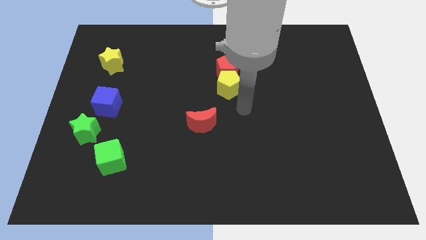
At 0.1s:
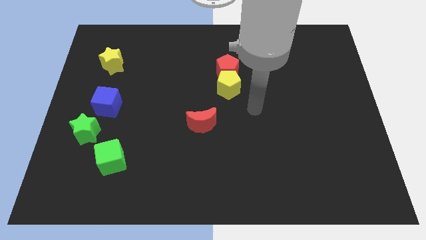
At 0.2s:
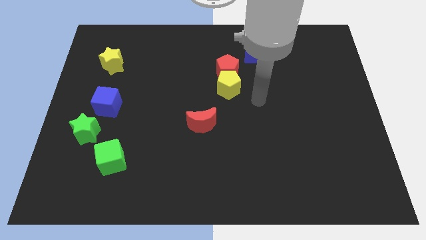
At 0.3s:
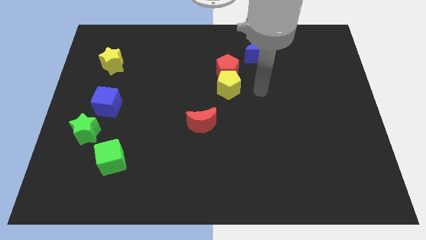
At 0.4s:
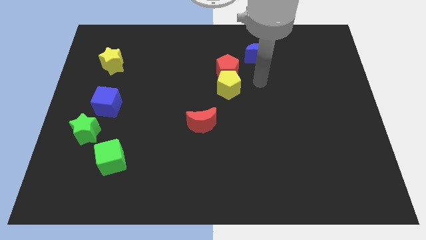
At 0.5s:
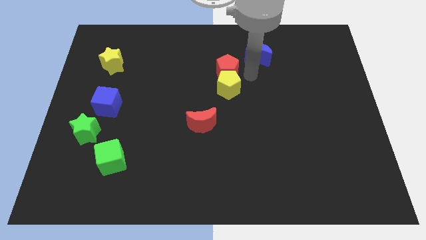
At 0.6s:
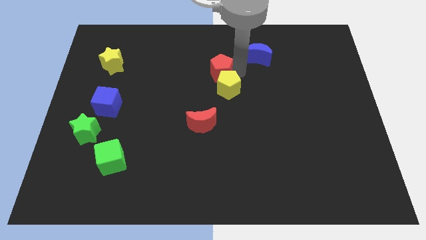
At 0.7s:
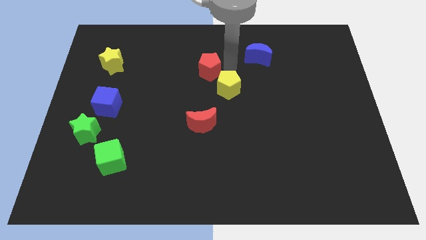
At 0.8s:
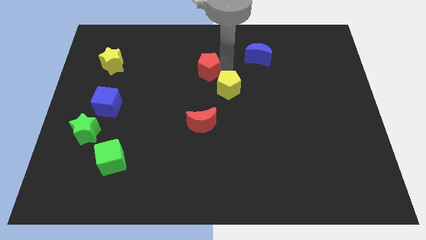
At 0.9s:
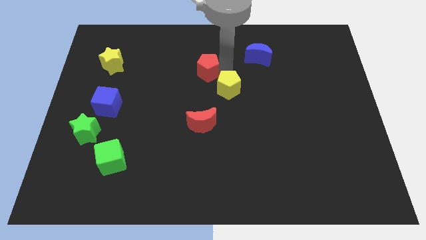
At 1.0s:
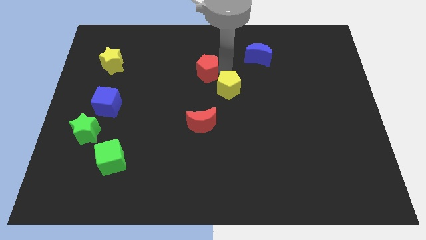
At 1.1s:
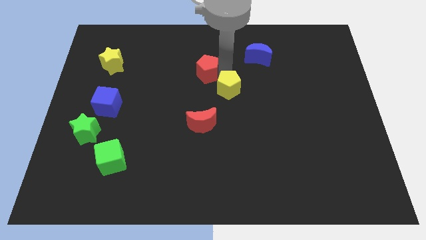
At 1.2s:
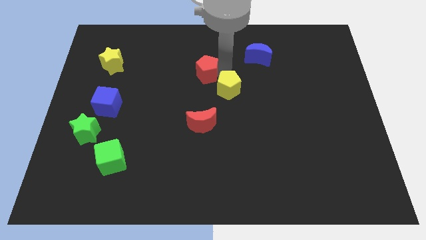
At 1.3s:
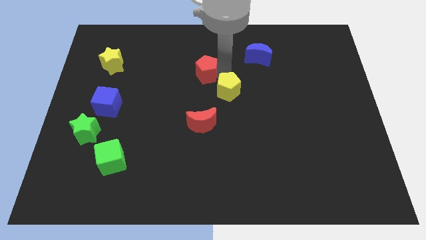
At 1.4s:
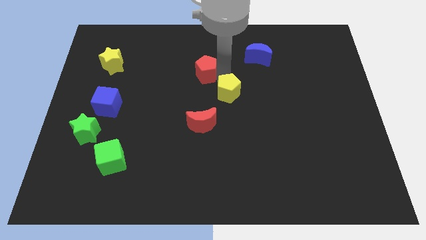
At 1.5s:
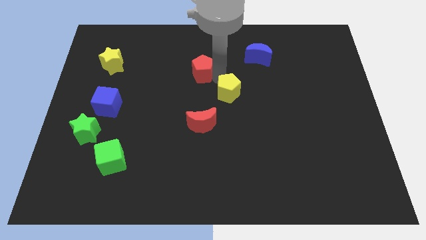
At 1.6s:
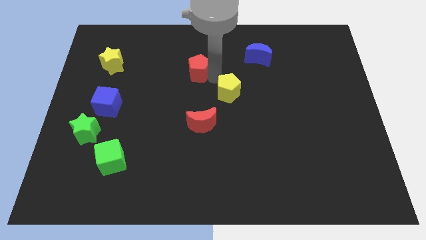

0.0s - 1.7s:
pull the yellow pentagon apart from the red pentagon

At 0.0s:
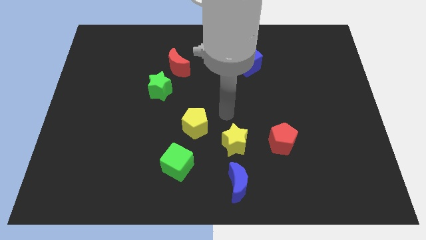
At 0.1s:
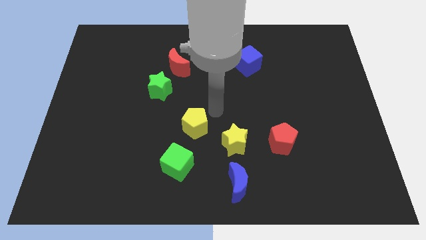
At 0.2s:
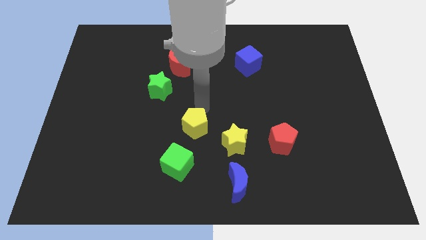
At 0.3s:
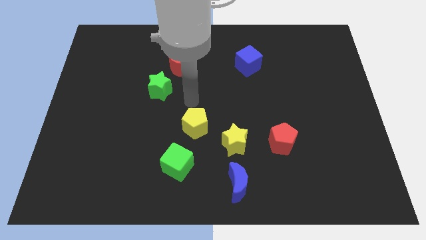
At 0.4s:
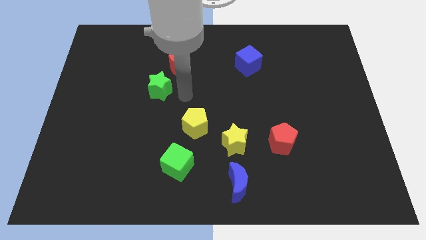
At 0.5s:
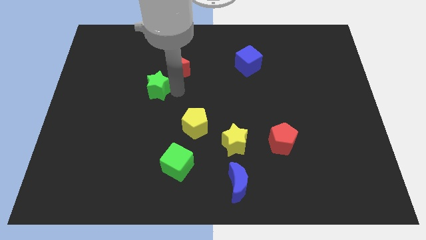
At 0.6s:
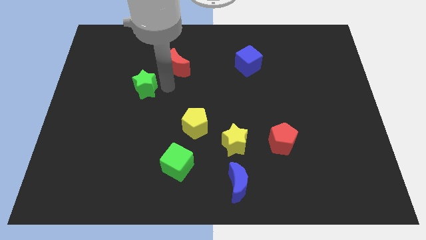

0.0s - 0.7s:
move the red moon away from the green star

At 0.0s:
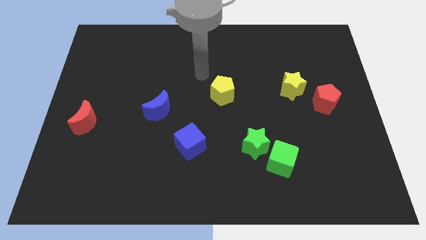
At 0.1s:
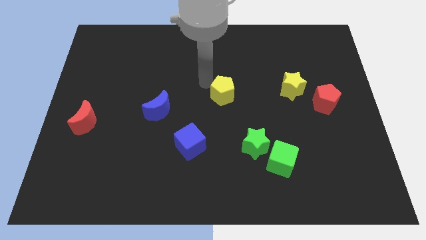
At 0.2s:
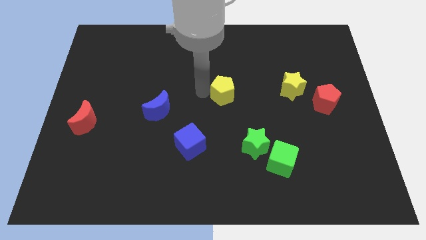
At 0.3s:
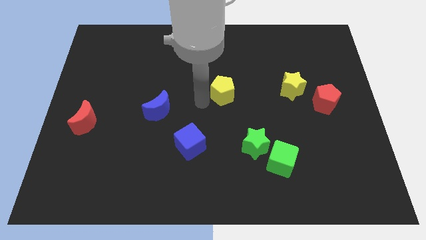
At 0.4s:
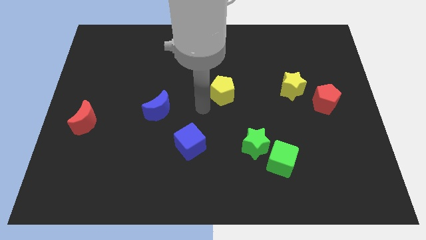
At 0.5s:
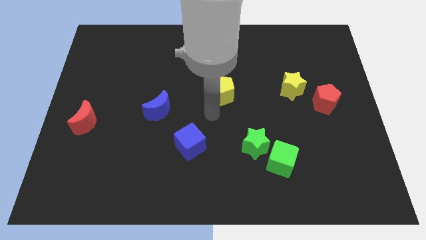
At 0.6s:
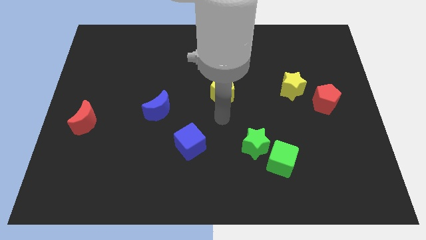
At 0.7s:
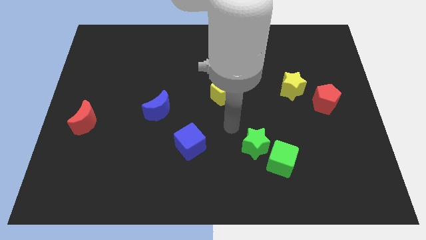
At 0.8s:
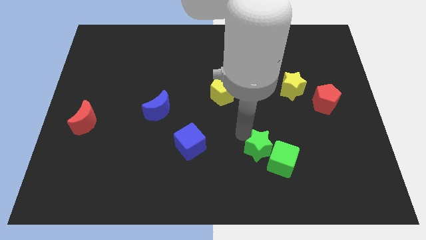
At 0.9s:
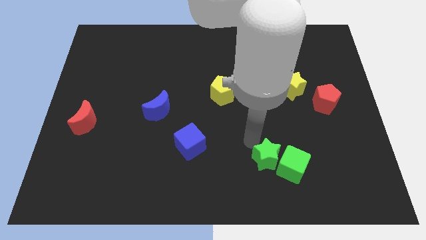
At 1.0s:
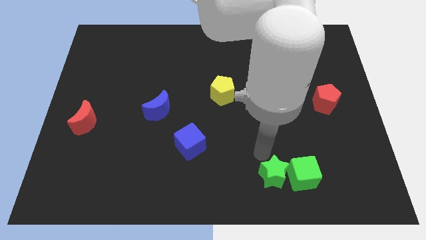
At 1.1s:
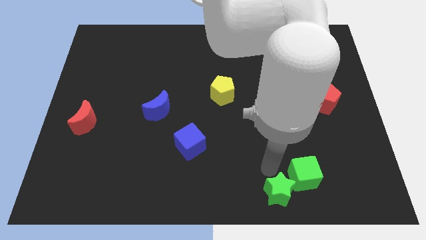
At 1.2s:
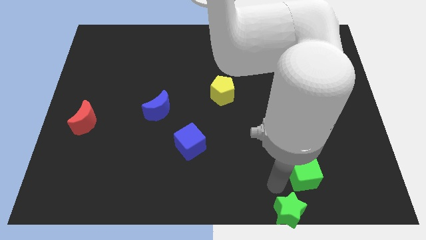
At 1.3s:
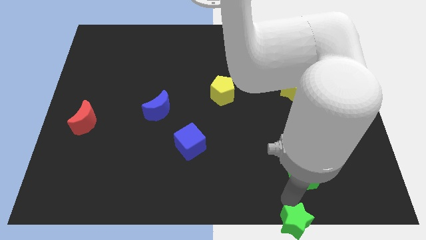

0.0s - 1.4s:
pull the green cube apart from the green star

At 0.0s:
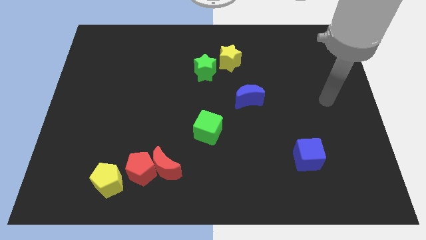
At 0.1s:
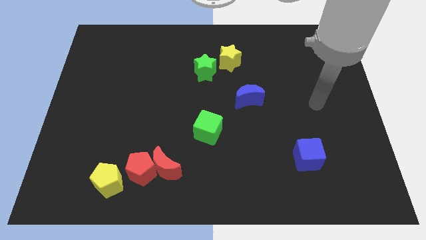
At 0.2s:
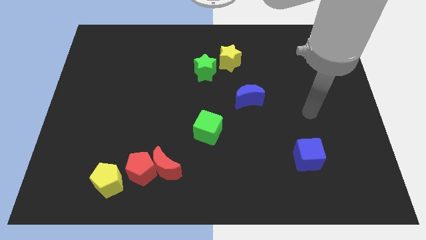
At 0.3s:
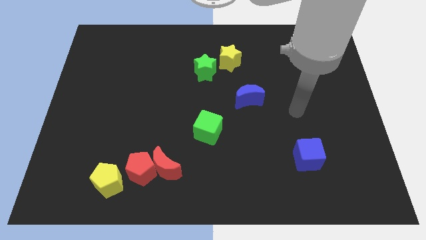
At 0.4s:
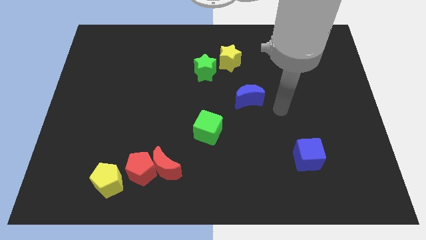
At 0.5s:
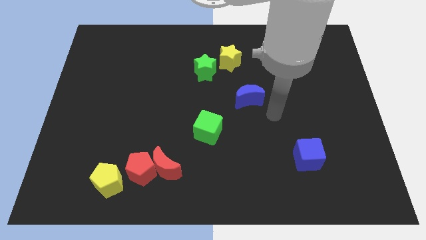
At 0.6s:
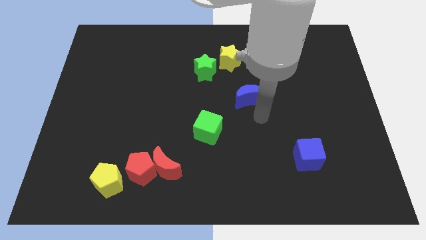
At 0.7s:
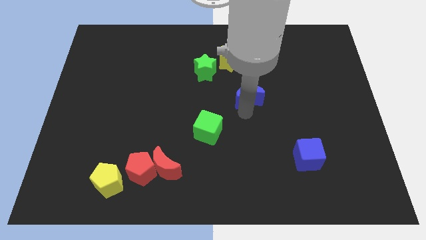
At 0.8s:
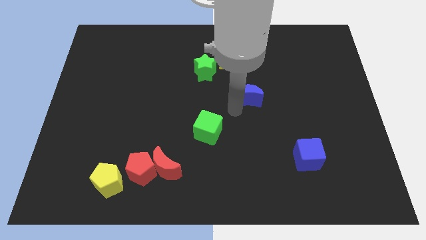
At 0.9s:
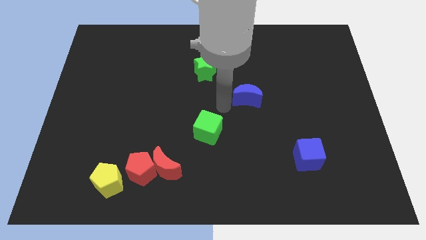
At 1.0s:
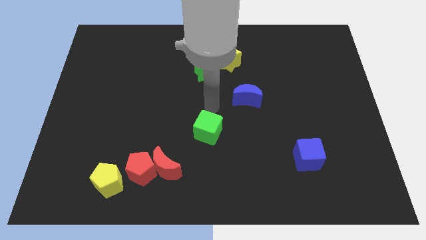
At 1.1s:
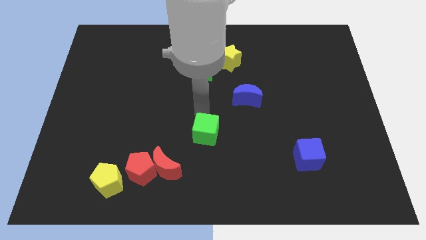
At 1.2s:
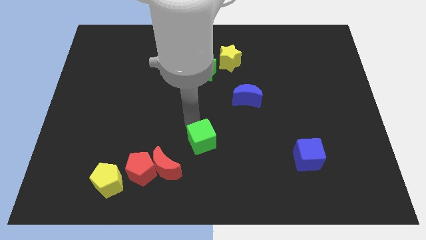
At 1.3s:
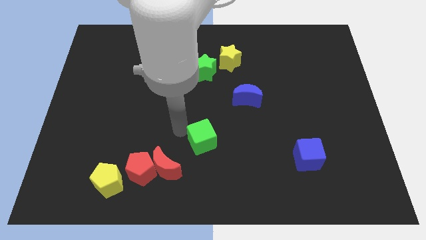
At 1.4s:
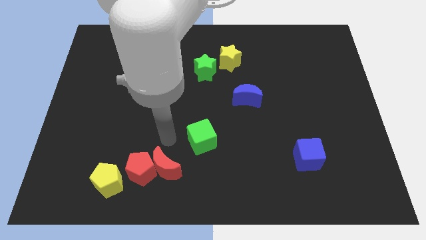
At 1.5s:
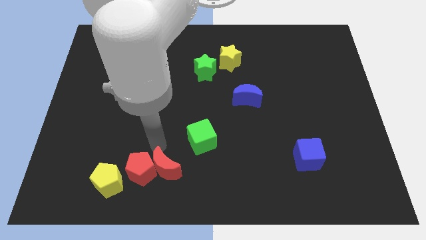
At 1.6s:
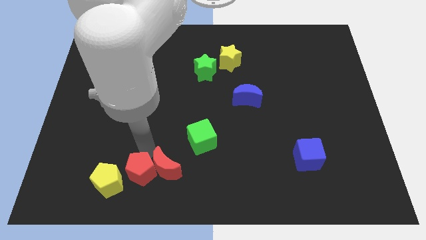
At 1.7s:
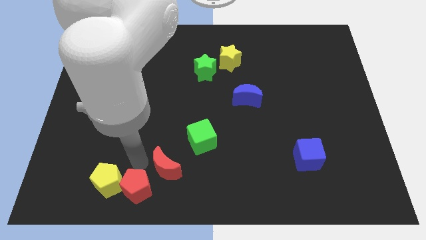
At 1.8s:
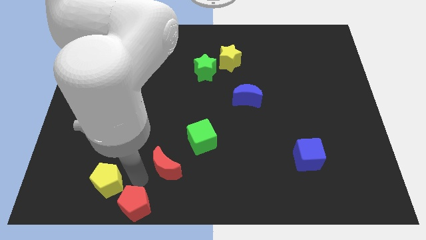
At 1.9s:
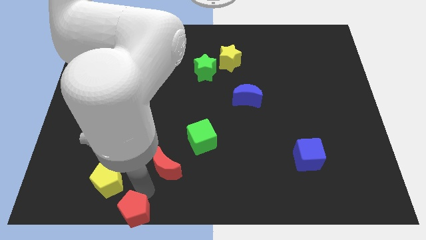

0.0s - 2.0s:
pull the red moon apart from the red pentagon

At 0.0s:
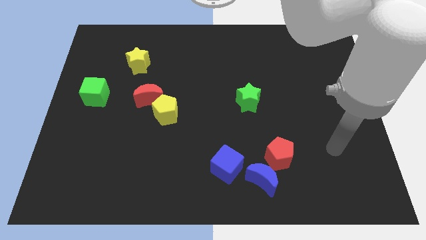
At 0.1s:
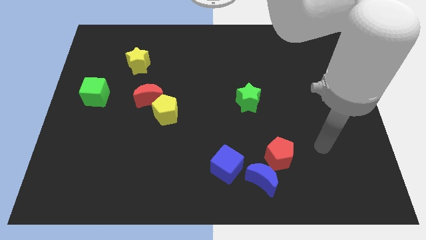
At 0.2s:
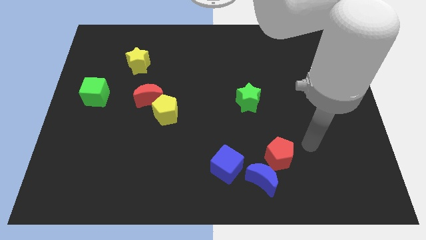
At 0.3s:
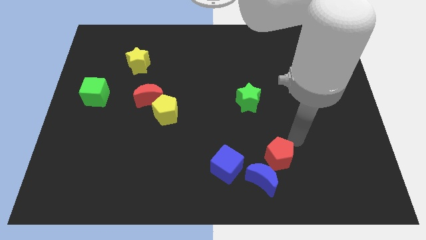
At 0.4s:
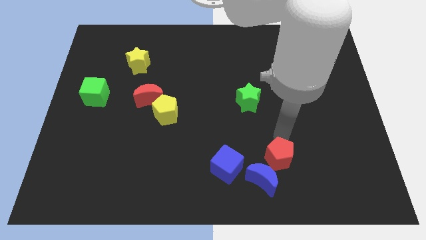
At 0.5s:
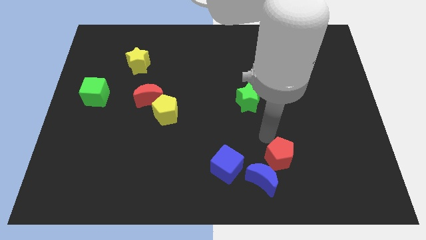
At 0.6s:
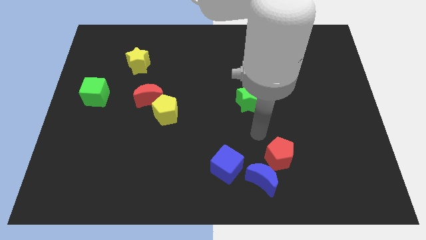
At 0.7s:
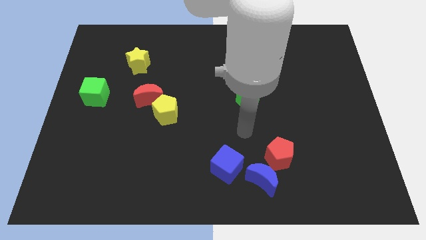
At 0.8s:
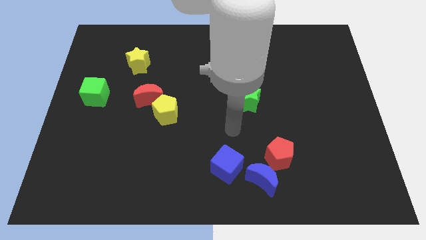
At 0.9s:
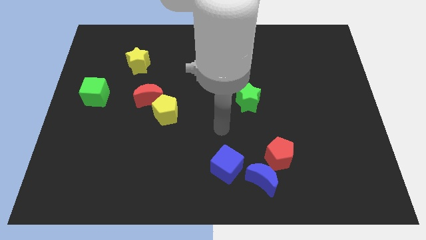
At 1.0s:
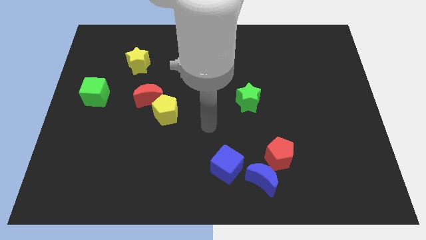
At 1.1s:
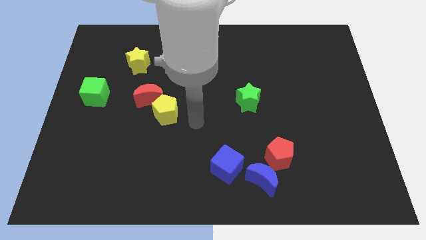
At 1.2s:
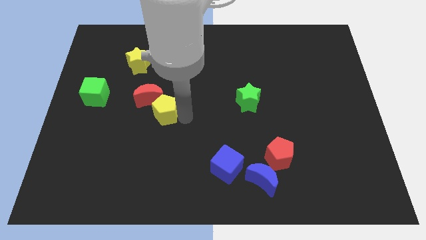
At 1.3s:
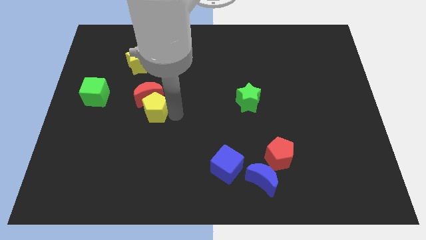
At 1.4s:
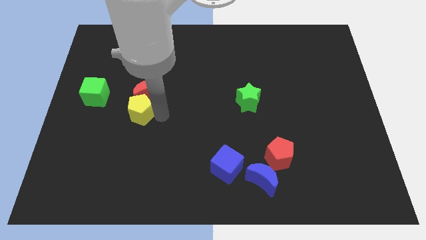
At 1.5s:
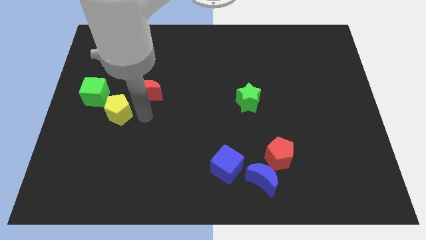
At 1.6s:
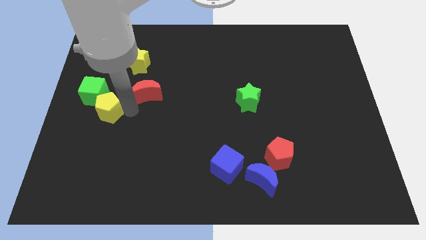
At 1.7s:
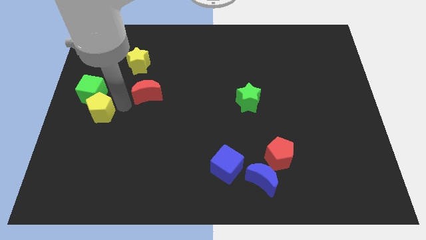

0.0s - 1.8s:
pull the red moon apart from the yellow pentagon

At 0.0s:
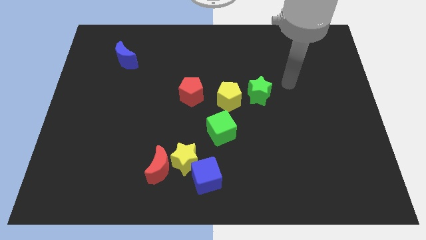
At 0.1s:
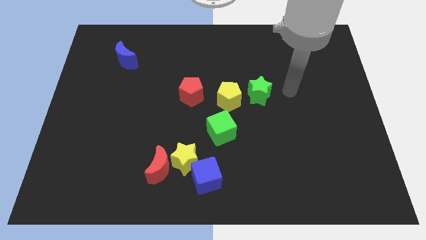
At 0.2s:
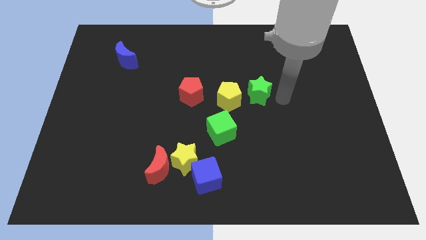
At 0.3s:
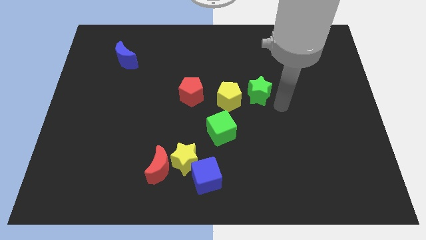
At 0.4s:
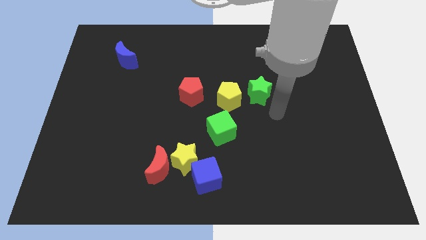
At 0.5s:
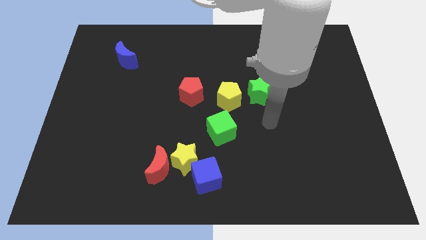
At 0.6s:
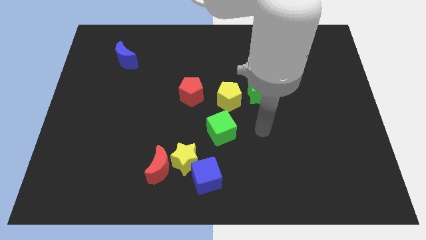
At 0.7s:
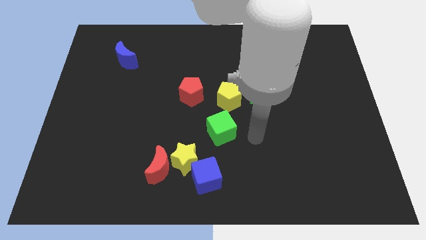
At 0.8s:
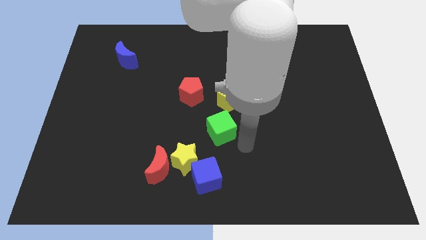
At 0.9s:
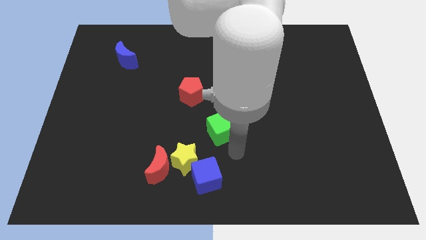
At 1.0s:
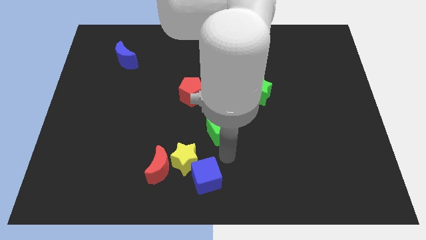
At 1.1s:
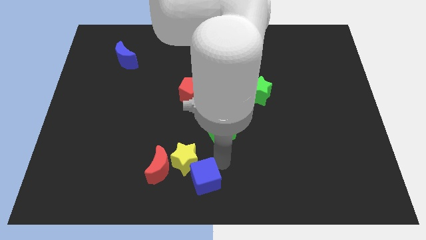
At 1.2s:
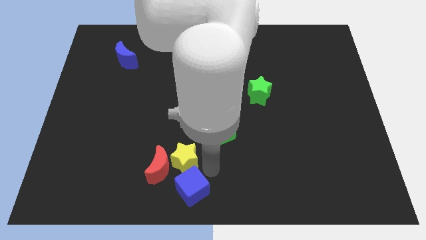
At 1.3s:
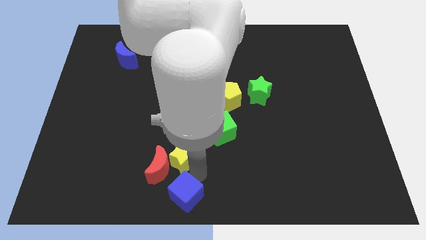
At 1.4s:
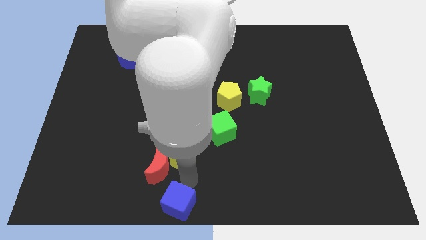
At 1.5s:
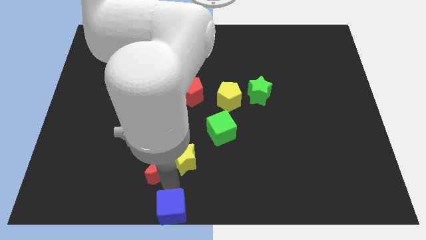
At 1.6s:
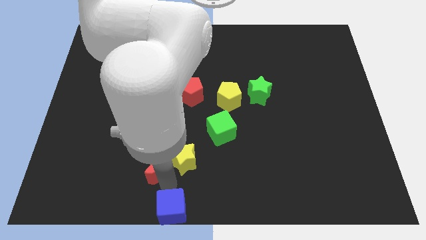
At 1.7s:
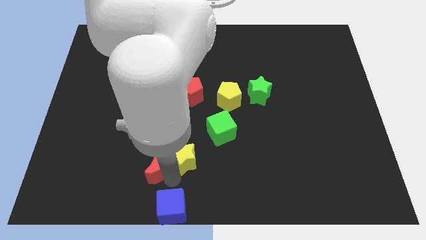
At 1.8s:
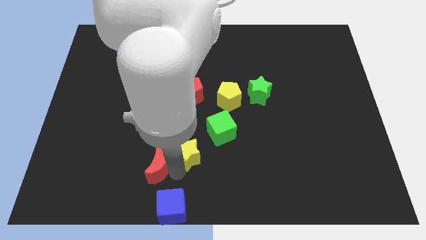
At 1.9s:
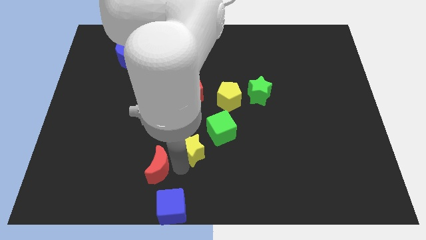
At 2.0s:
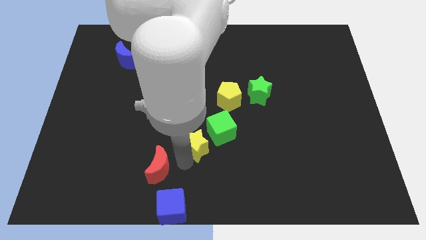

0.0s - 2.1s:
move the yellow star away from the red moon and blue cube
